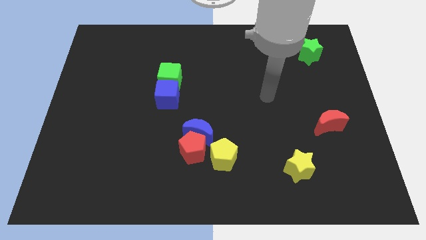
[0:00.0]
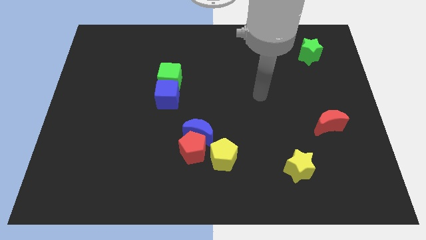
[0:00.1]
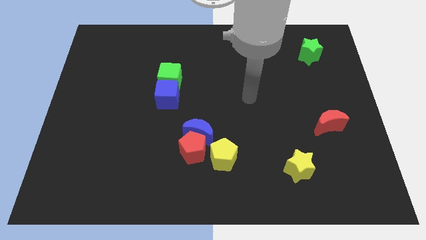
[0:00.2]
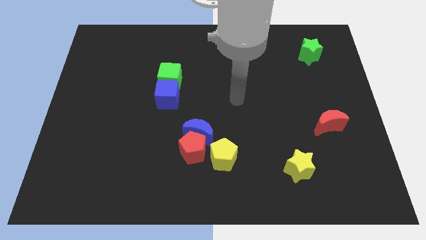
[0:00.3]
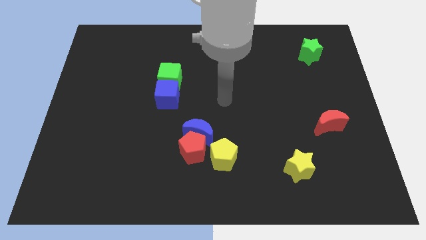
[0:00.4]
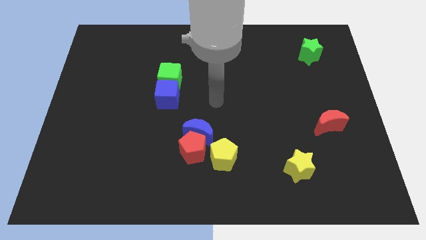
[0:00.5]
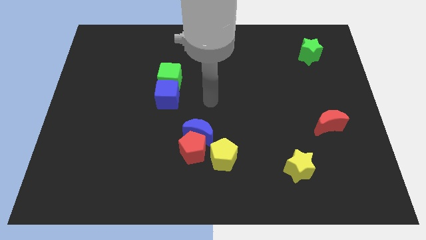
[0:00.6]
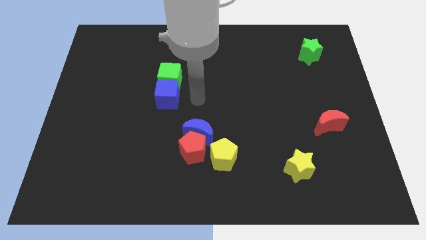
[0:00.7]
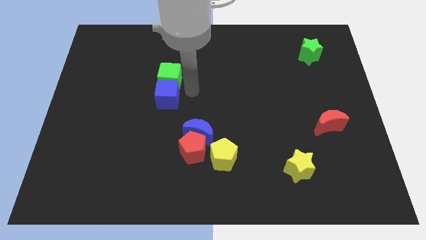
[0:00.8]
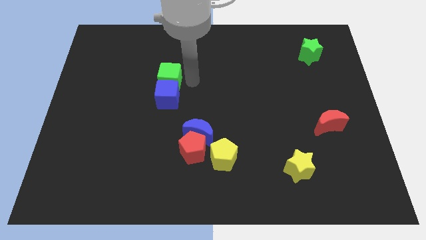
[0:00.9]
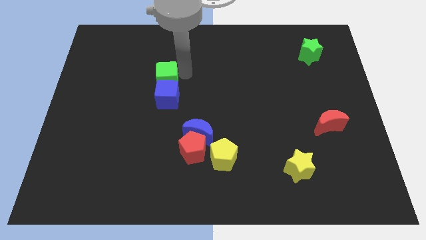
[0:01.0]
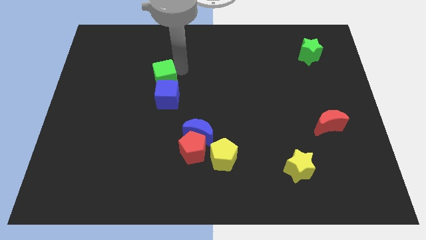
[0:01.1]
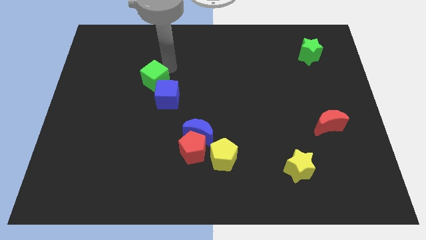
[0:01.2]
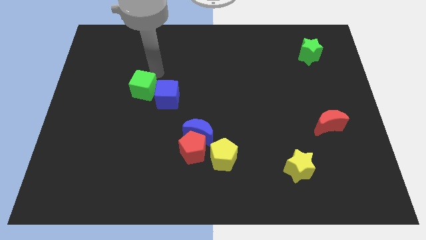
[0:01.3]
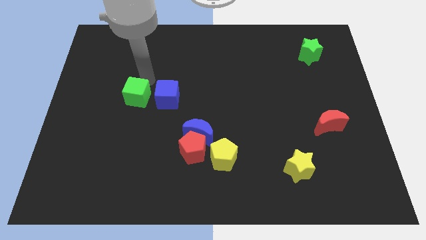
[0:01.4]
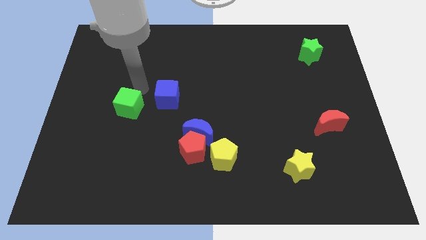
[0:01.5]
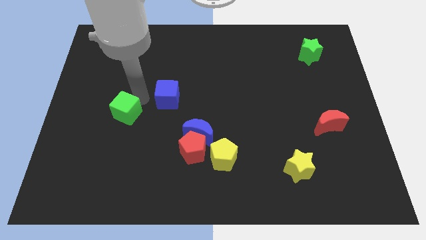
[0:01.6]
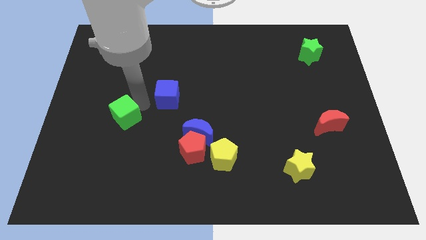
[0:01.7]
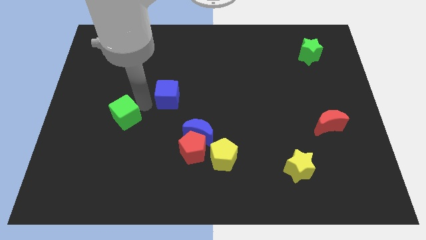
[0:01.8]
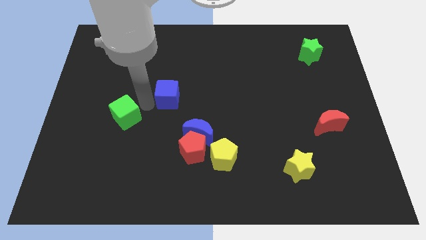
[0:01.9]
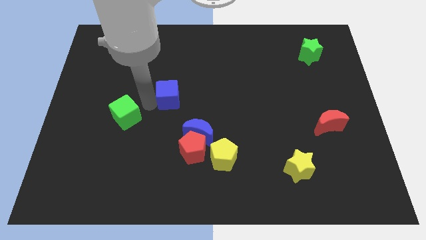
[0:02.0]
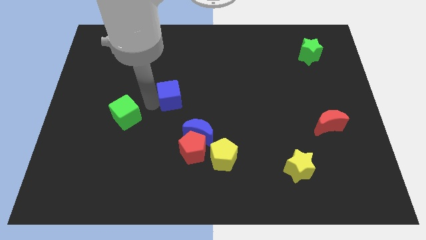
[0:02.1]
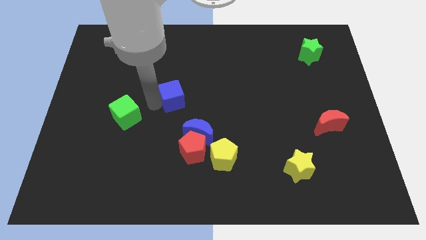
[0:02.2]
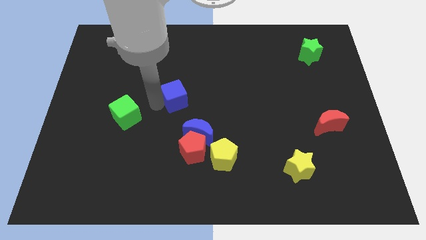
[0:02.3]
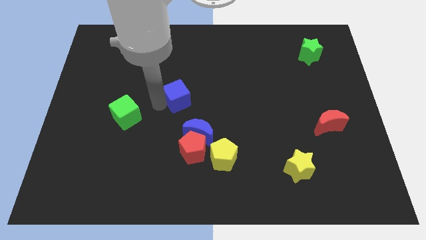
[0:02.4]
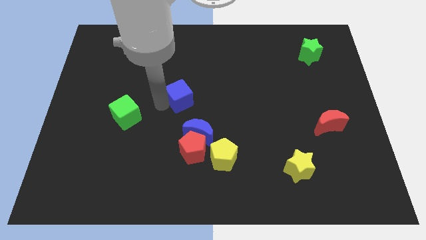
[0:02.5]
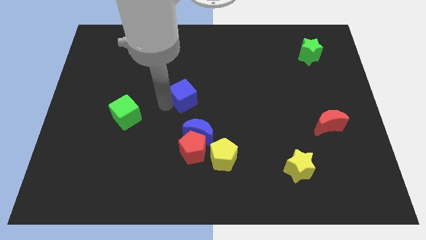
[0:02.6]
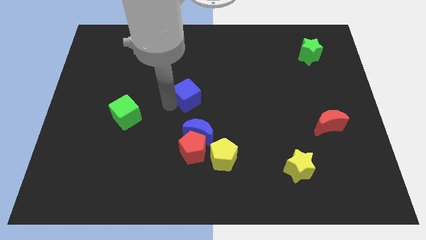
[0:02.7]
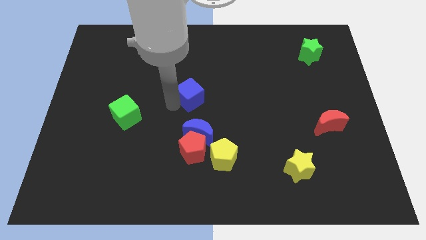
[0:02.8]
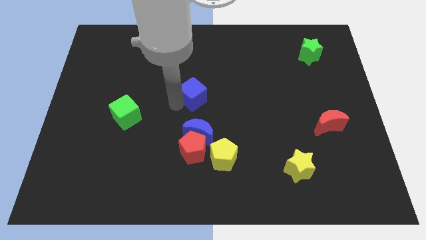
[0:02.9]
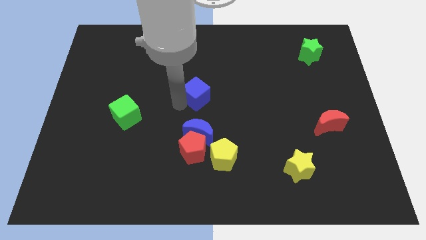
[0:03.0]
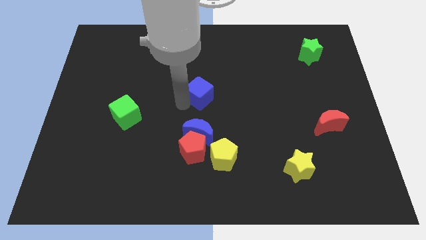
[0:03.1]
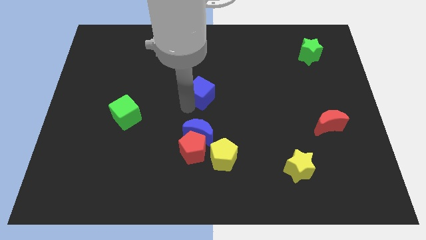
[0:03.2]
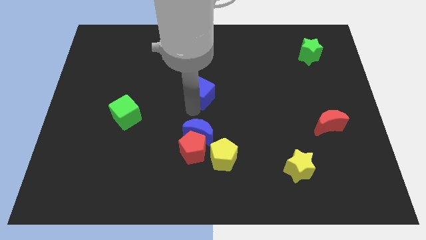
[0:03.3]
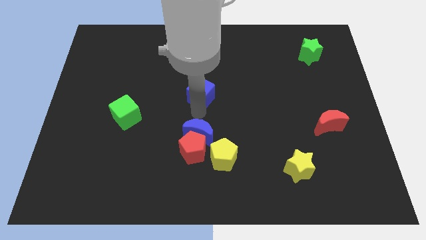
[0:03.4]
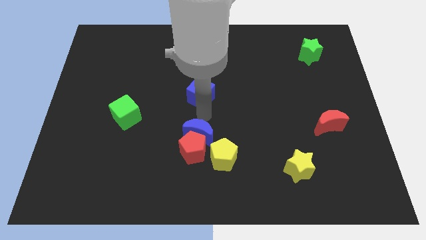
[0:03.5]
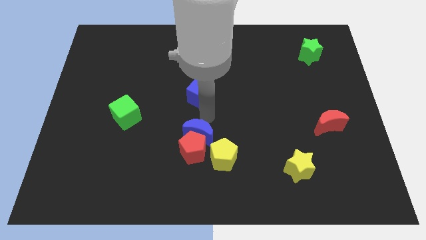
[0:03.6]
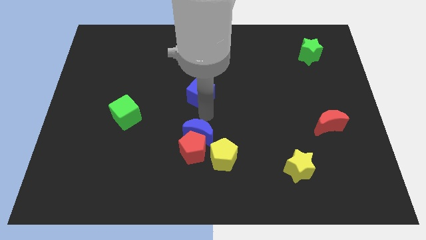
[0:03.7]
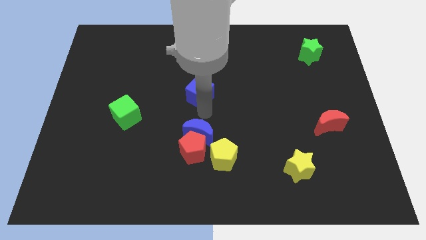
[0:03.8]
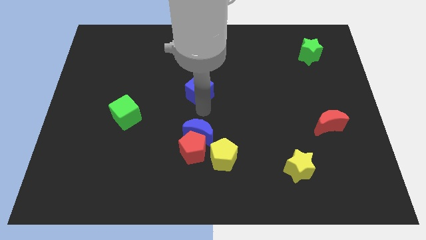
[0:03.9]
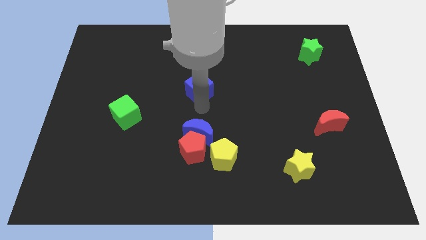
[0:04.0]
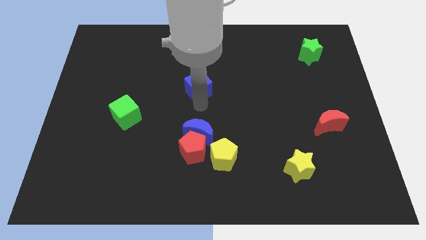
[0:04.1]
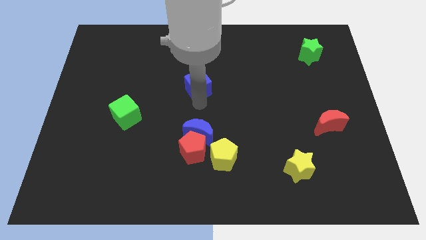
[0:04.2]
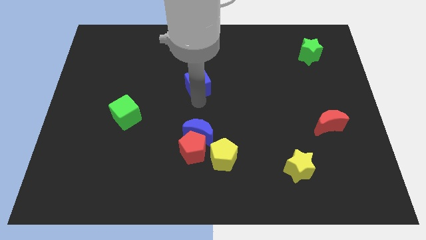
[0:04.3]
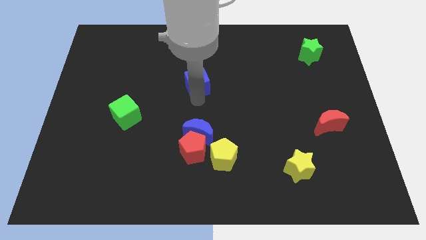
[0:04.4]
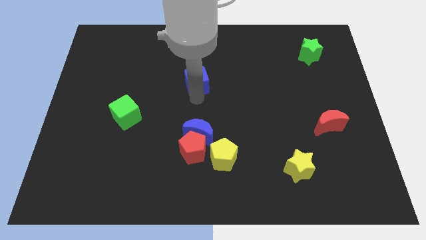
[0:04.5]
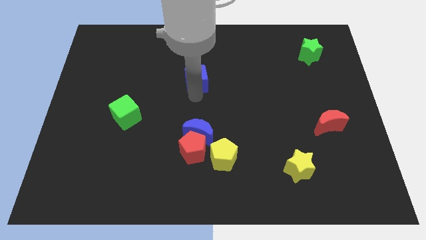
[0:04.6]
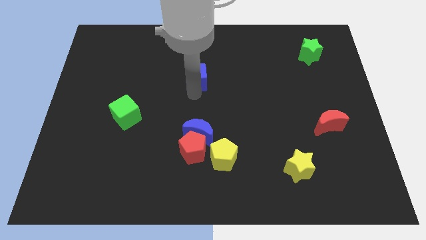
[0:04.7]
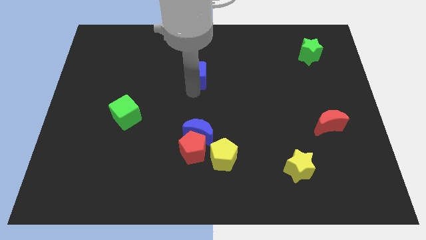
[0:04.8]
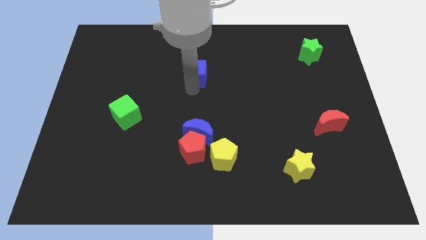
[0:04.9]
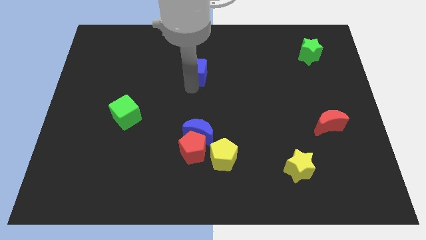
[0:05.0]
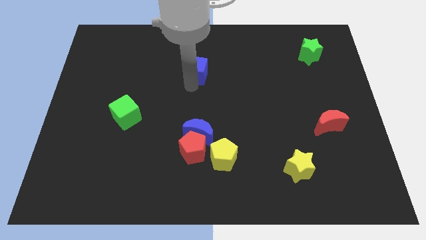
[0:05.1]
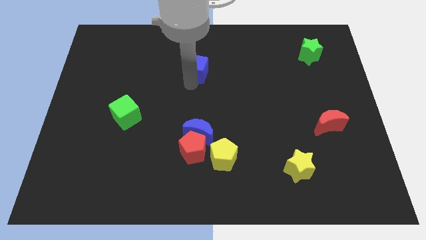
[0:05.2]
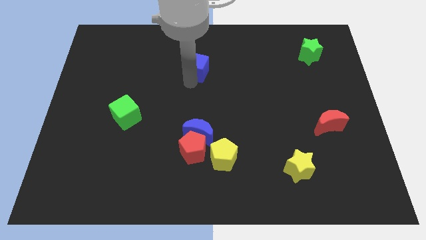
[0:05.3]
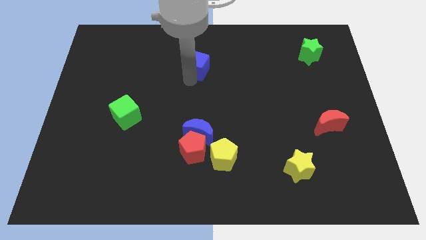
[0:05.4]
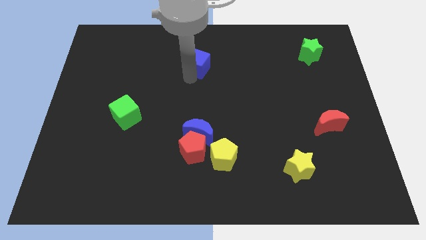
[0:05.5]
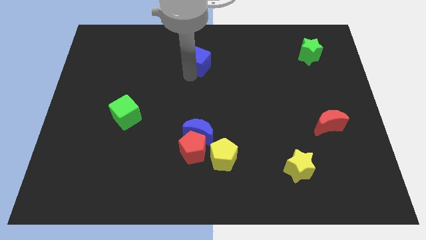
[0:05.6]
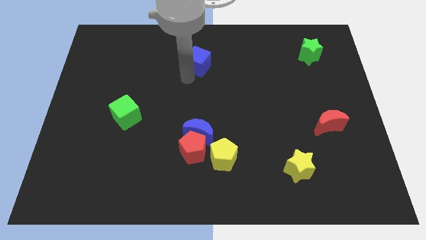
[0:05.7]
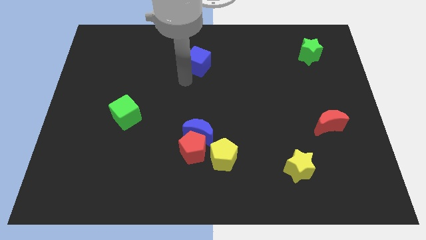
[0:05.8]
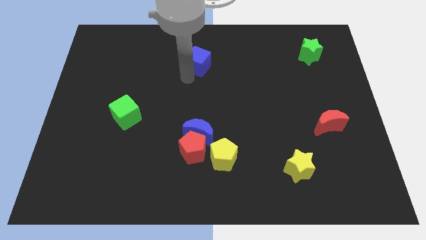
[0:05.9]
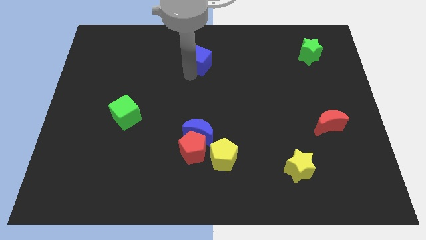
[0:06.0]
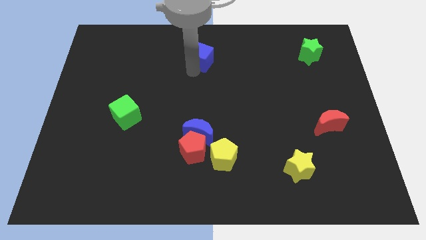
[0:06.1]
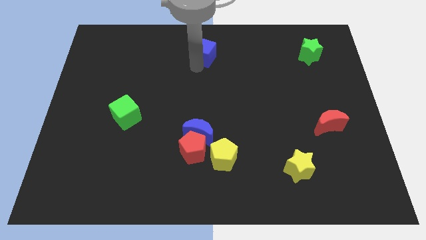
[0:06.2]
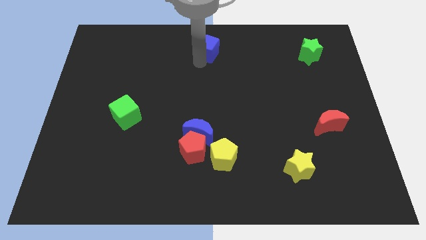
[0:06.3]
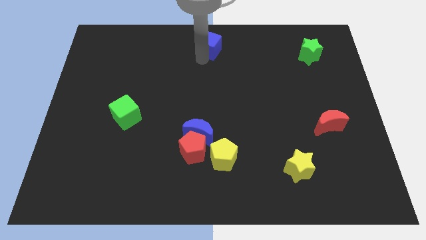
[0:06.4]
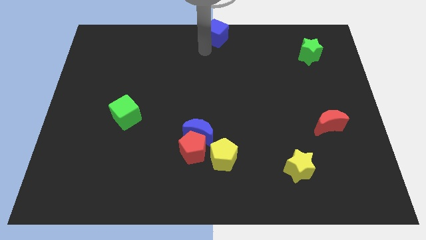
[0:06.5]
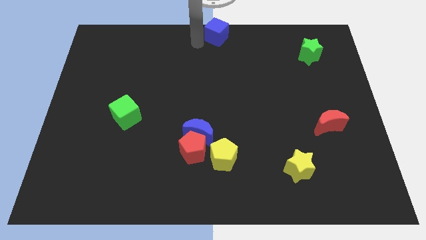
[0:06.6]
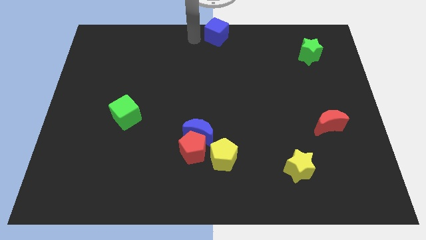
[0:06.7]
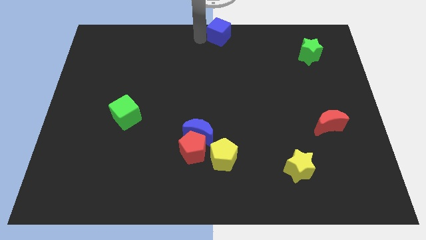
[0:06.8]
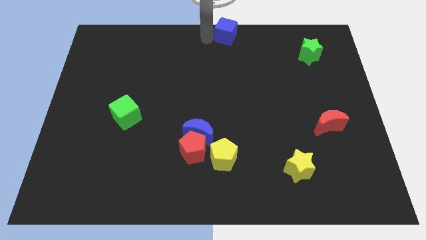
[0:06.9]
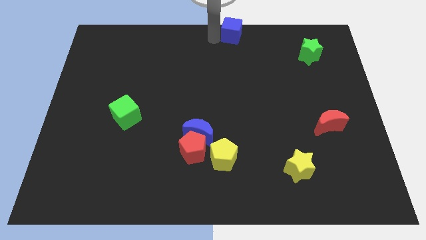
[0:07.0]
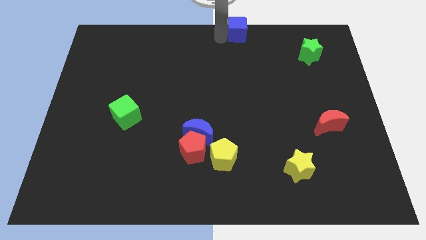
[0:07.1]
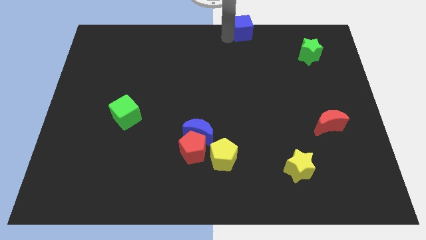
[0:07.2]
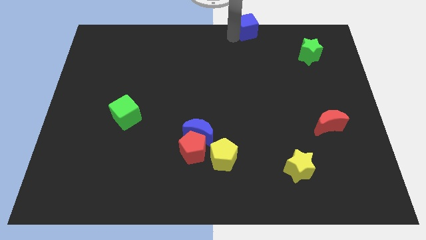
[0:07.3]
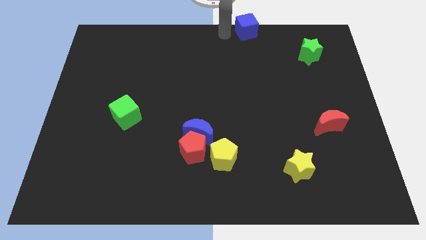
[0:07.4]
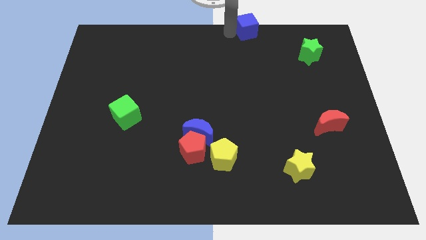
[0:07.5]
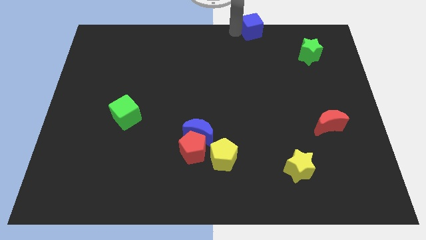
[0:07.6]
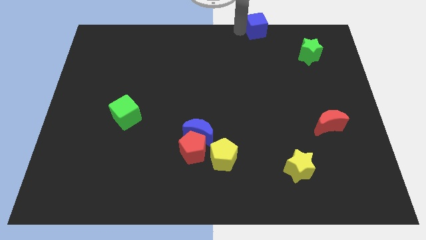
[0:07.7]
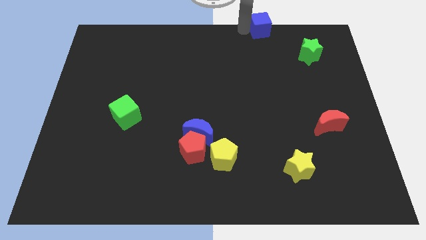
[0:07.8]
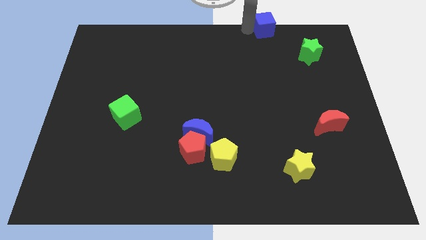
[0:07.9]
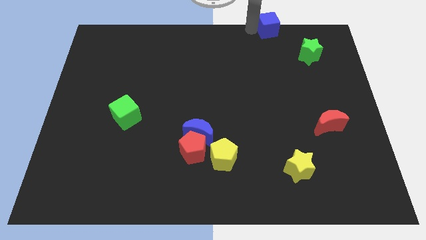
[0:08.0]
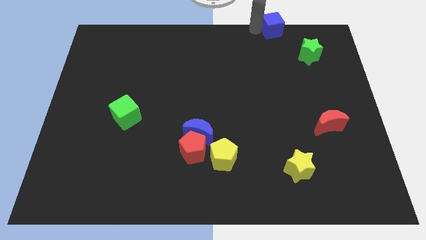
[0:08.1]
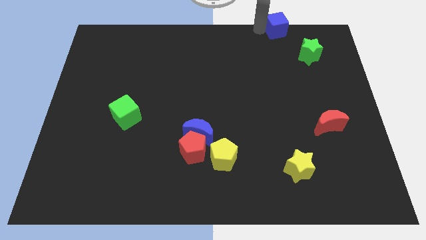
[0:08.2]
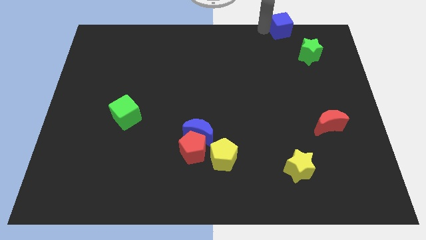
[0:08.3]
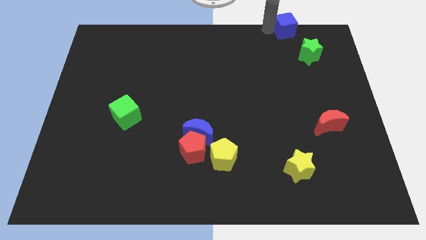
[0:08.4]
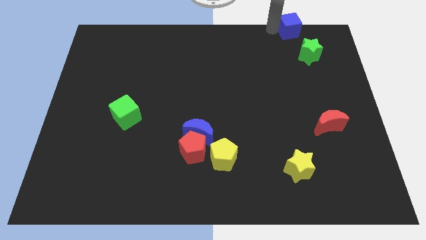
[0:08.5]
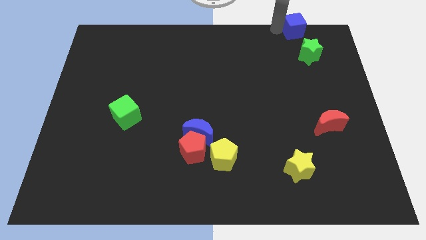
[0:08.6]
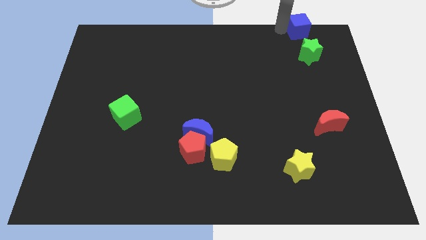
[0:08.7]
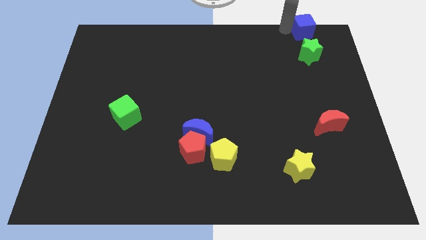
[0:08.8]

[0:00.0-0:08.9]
slide the blue cube to the top right of the board
